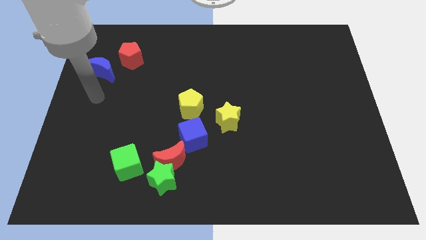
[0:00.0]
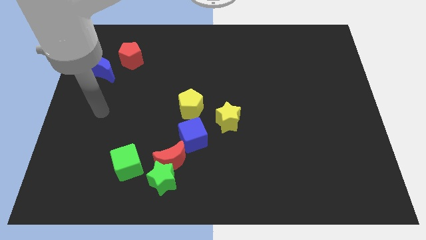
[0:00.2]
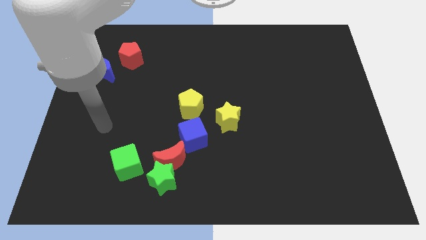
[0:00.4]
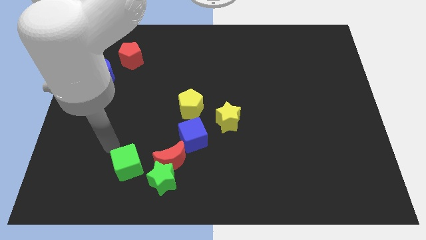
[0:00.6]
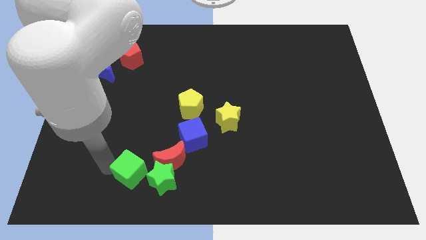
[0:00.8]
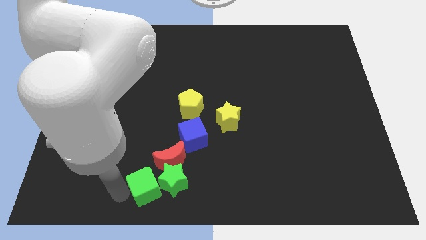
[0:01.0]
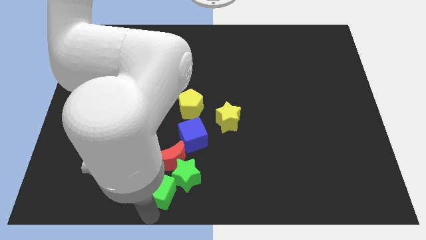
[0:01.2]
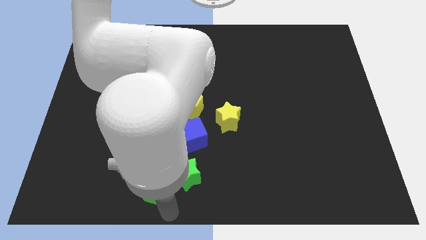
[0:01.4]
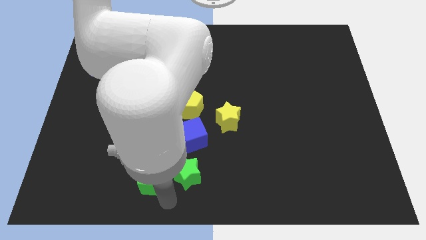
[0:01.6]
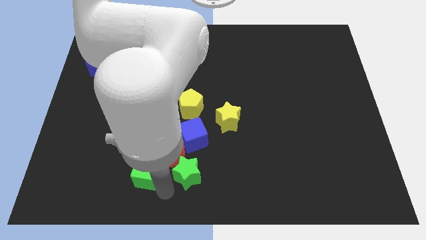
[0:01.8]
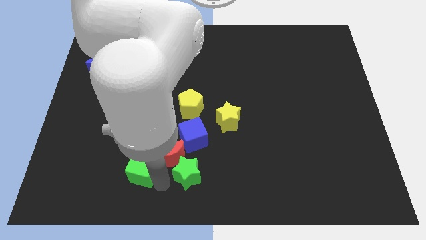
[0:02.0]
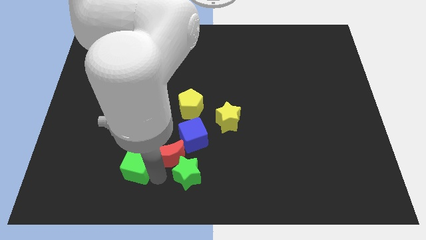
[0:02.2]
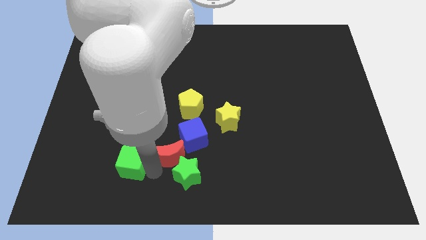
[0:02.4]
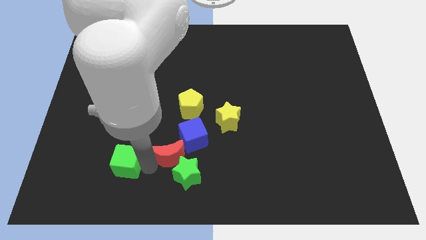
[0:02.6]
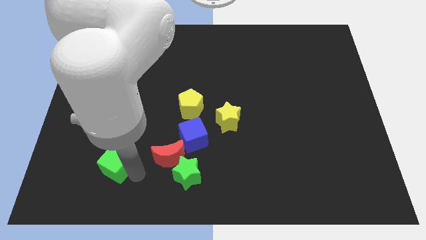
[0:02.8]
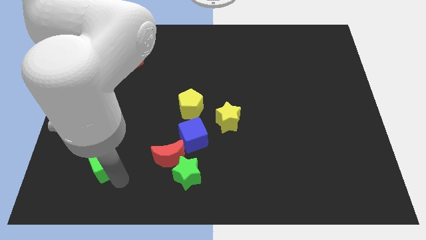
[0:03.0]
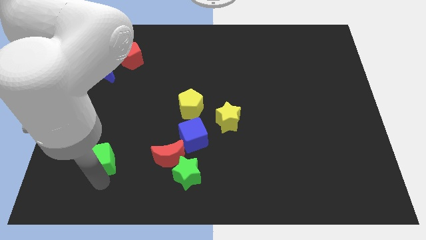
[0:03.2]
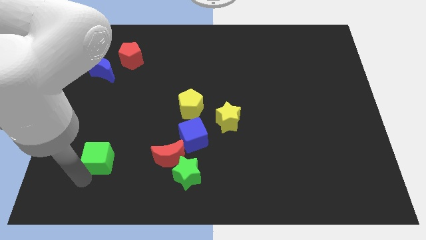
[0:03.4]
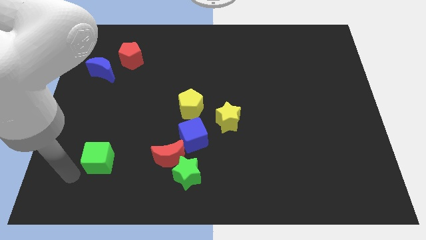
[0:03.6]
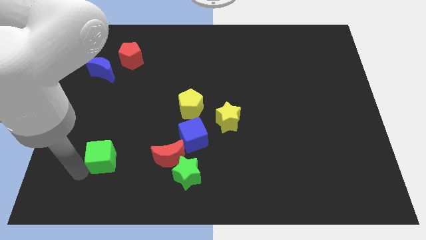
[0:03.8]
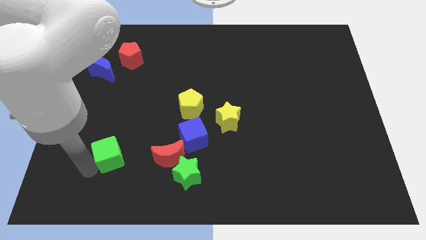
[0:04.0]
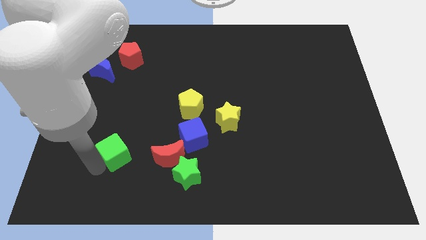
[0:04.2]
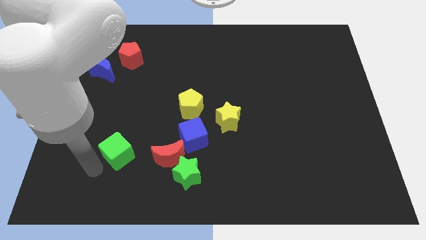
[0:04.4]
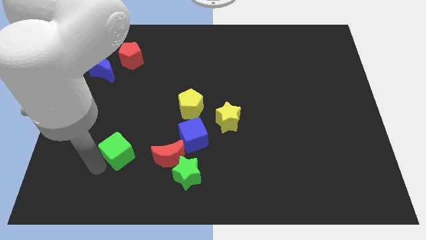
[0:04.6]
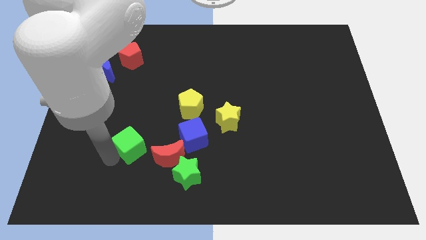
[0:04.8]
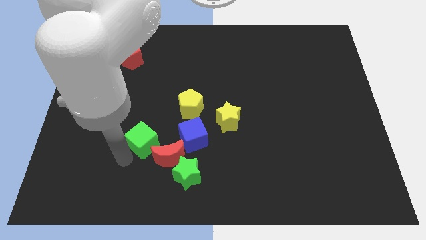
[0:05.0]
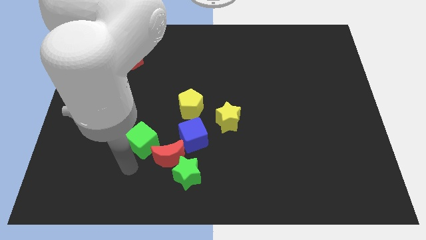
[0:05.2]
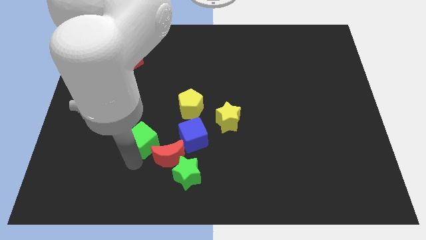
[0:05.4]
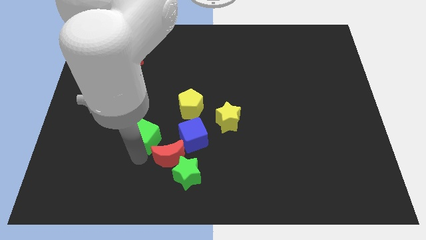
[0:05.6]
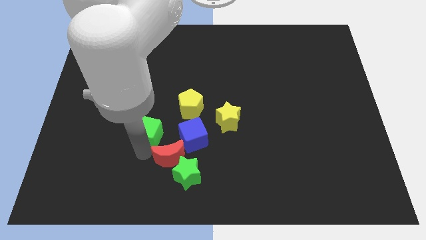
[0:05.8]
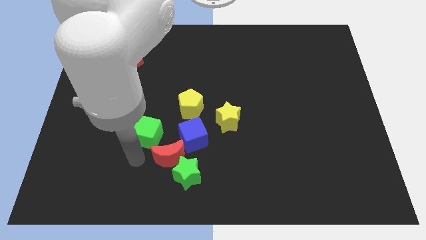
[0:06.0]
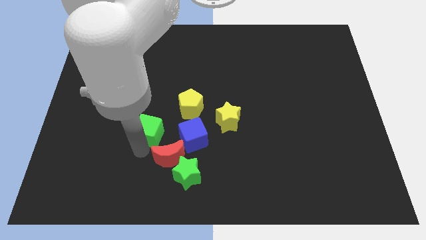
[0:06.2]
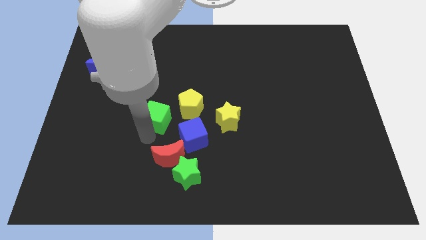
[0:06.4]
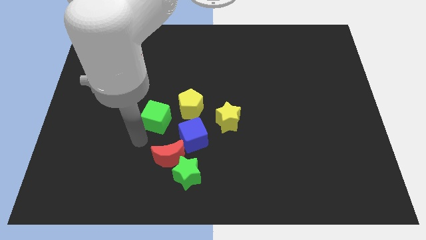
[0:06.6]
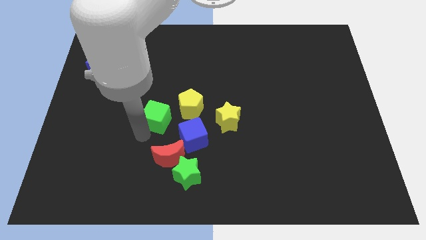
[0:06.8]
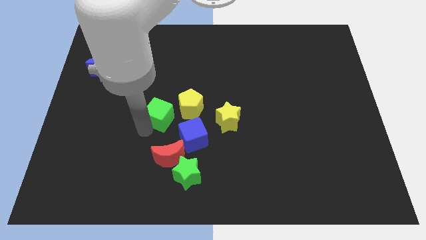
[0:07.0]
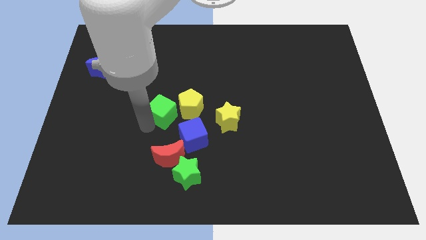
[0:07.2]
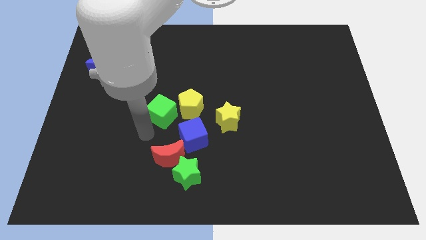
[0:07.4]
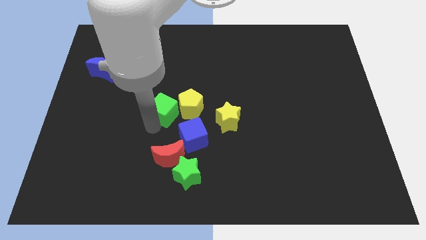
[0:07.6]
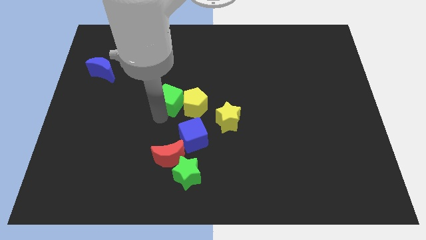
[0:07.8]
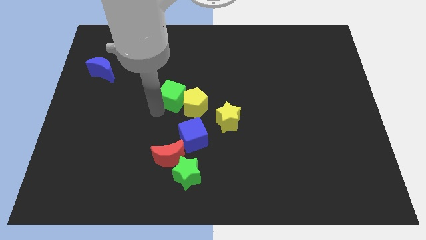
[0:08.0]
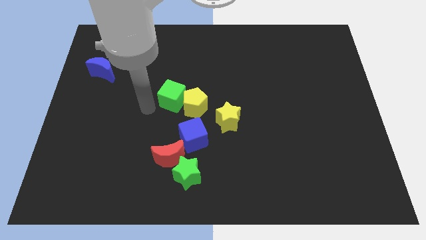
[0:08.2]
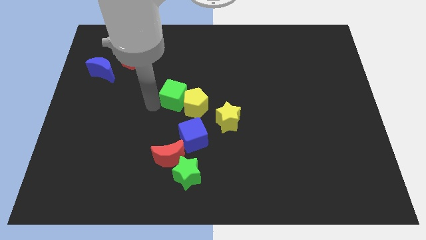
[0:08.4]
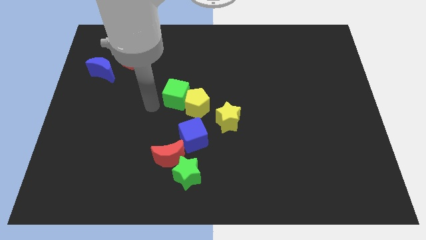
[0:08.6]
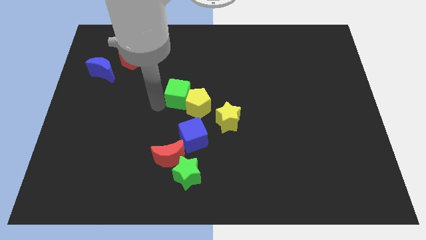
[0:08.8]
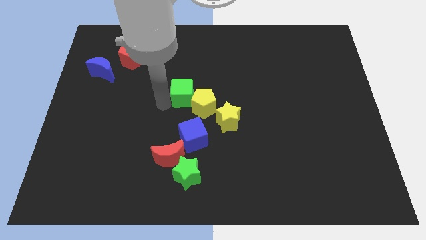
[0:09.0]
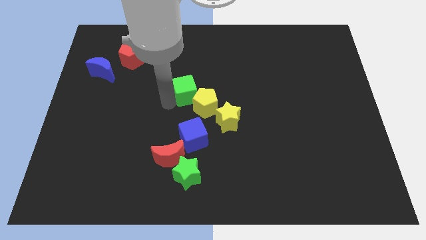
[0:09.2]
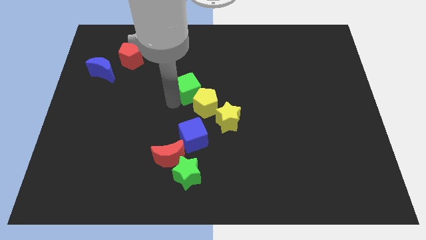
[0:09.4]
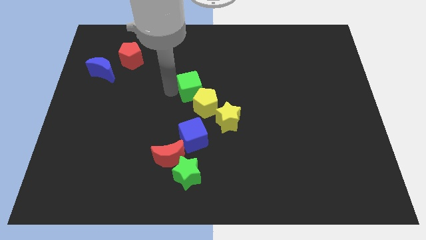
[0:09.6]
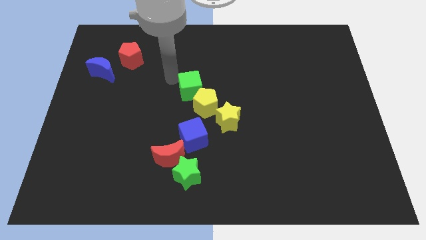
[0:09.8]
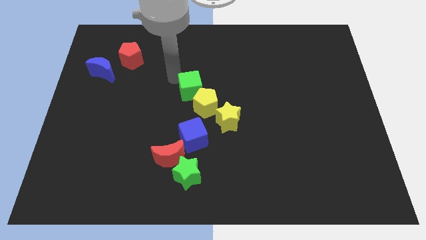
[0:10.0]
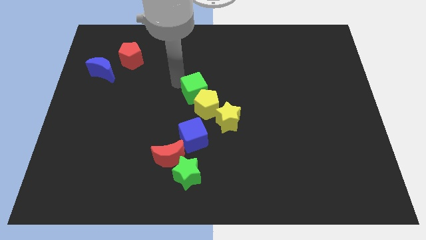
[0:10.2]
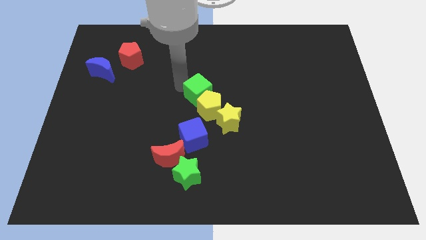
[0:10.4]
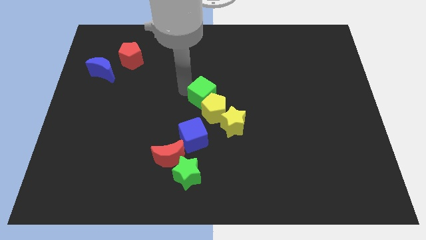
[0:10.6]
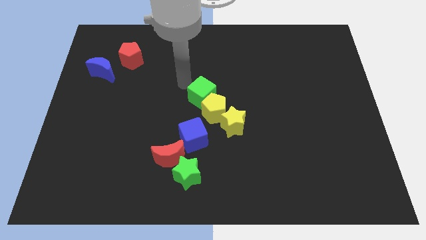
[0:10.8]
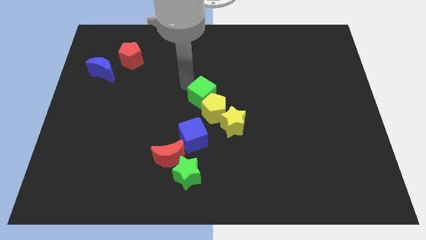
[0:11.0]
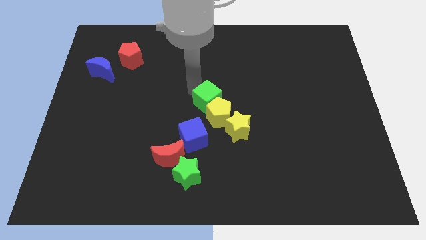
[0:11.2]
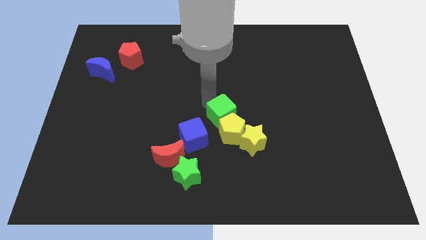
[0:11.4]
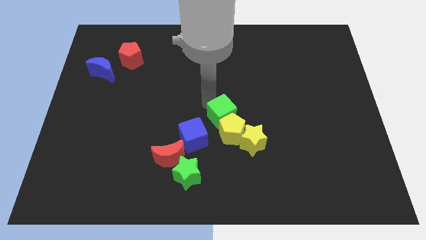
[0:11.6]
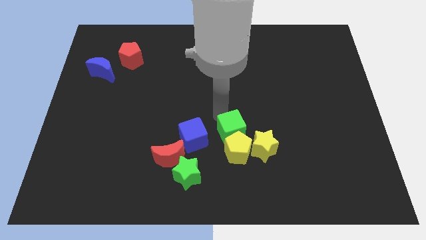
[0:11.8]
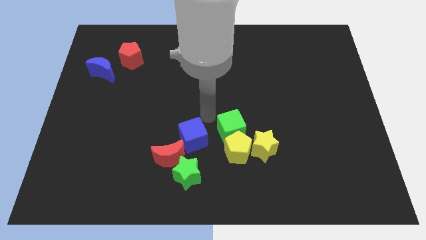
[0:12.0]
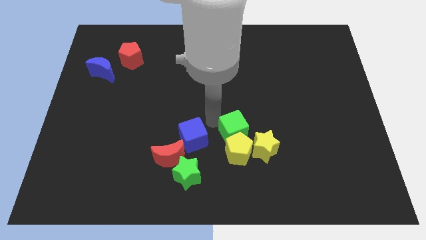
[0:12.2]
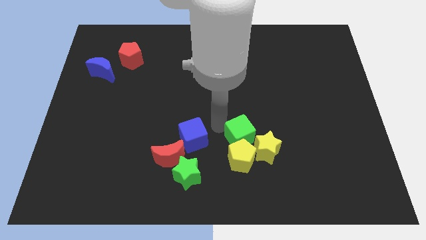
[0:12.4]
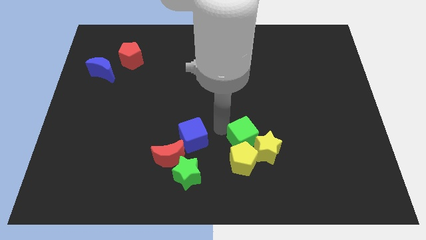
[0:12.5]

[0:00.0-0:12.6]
push the green cube towards the yellow star

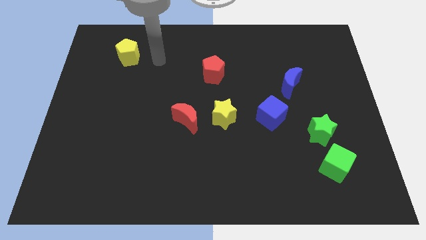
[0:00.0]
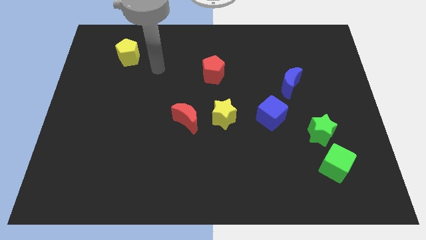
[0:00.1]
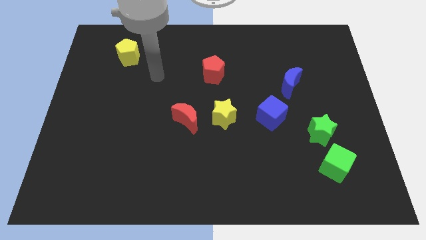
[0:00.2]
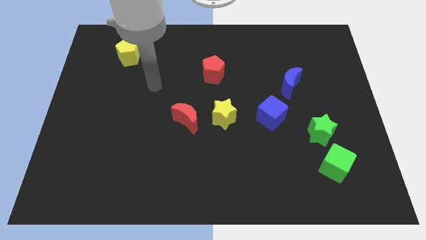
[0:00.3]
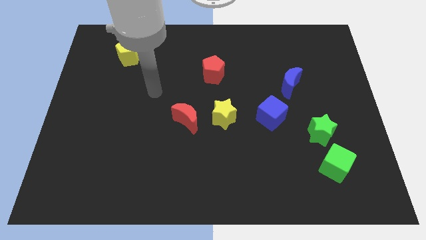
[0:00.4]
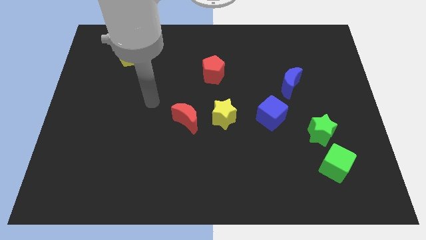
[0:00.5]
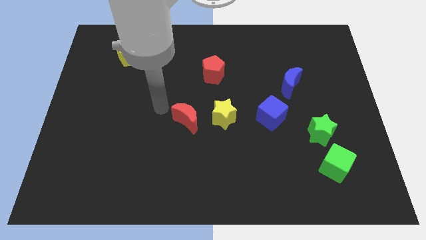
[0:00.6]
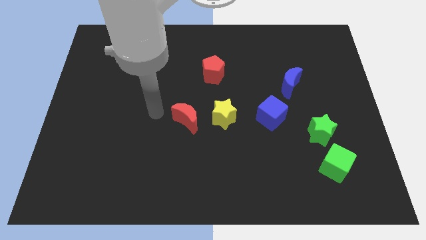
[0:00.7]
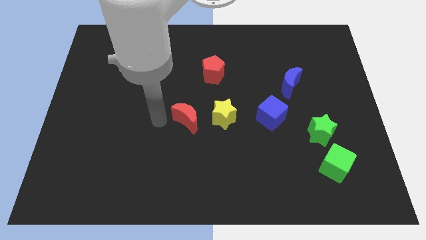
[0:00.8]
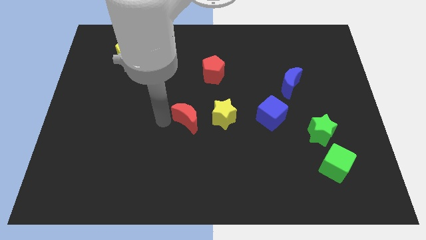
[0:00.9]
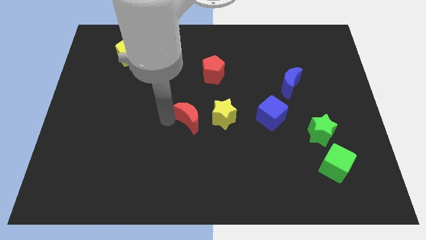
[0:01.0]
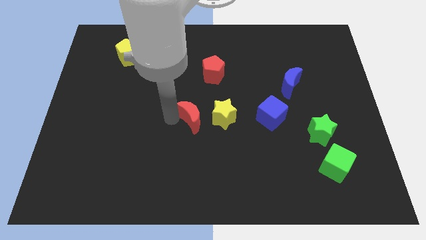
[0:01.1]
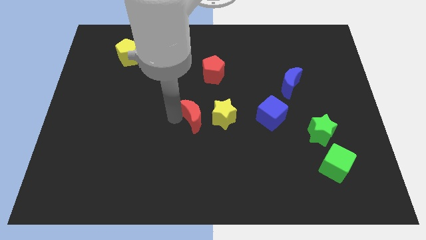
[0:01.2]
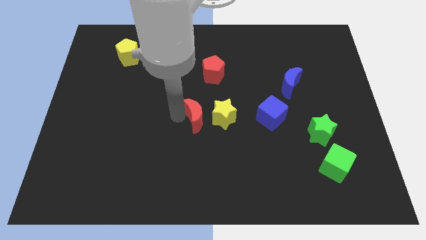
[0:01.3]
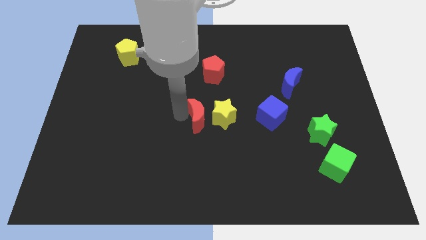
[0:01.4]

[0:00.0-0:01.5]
put the red moon next to the yellow star

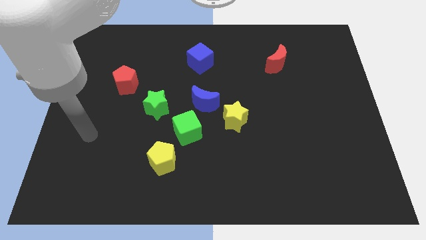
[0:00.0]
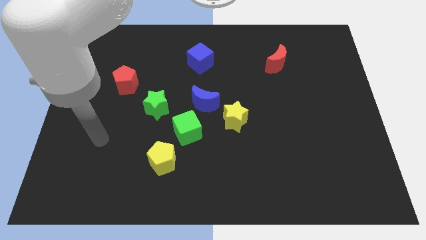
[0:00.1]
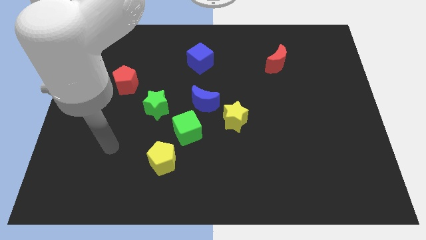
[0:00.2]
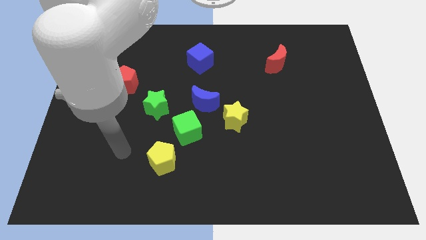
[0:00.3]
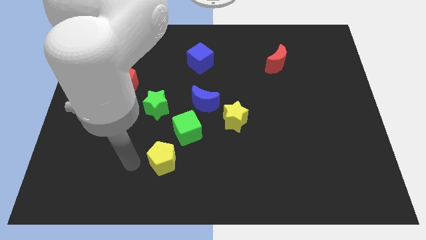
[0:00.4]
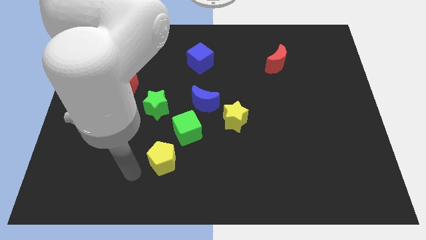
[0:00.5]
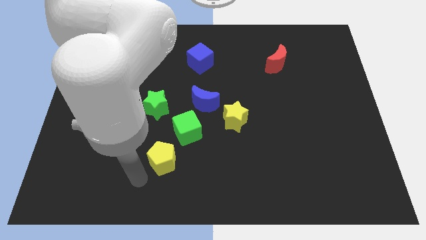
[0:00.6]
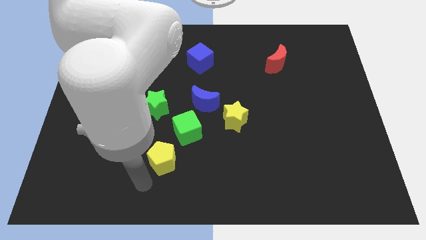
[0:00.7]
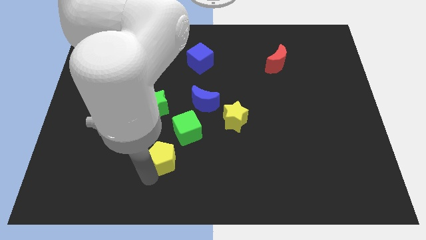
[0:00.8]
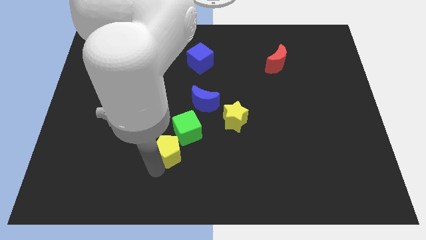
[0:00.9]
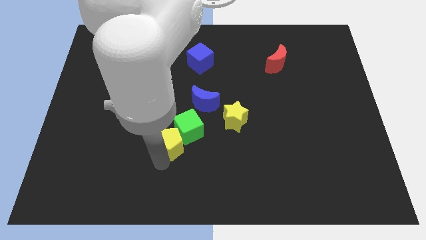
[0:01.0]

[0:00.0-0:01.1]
push the yellow pentagon next to the green cube
